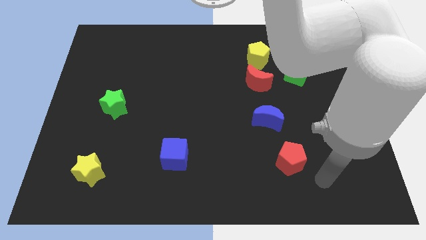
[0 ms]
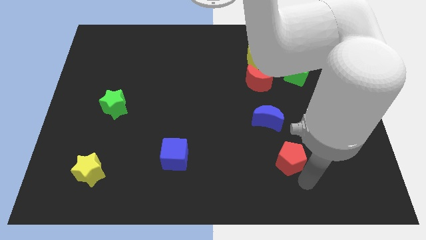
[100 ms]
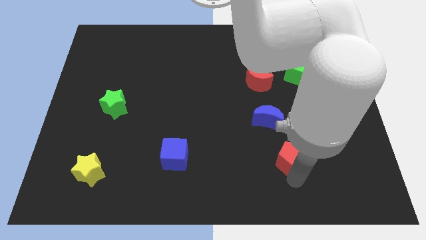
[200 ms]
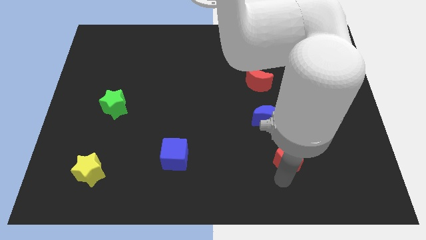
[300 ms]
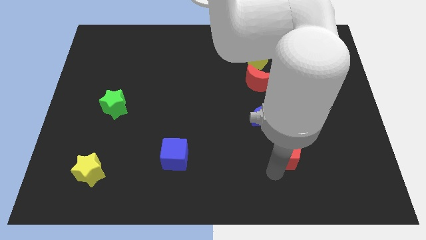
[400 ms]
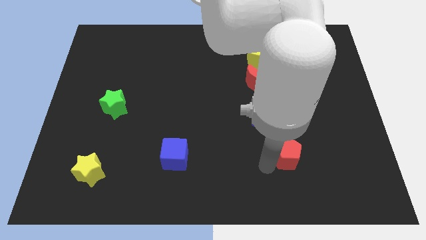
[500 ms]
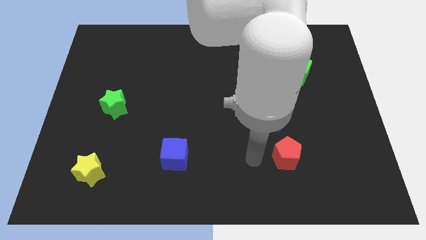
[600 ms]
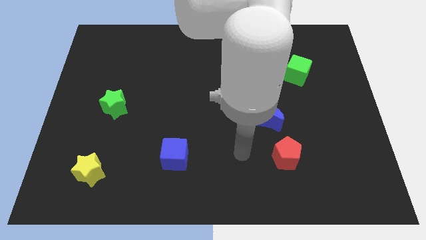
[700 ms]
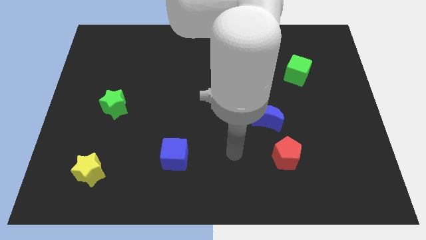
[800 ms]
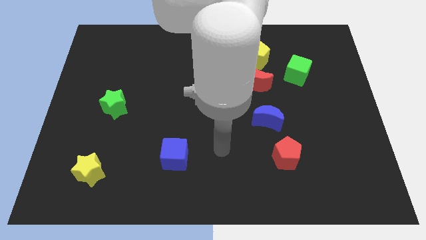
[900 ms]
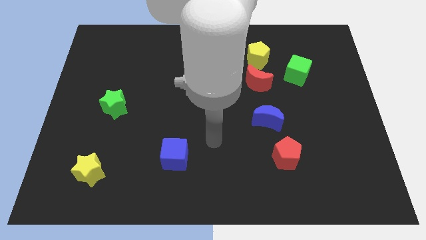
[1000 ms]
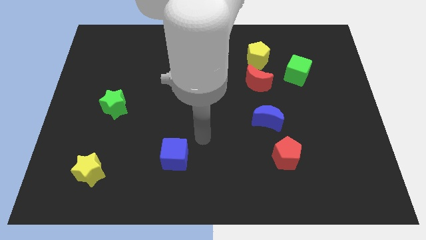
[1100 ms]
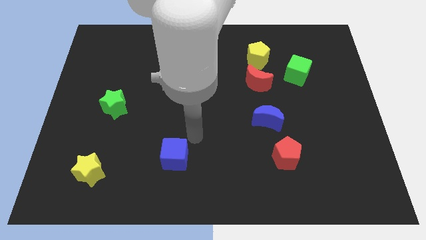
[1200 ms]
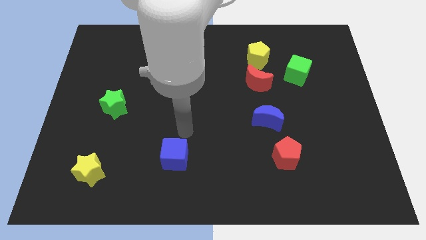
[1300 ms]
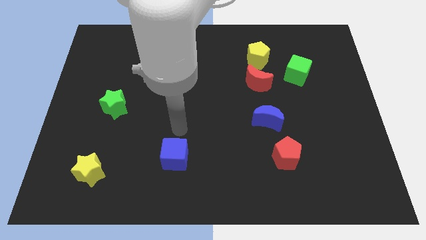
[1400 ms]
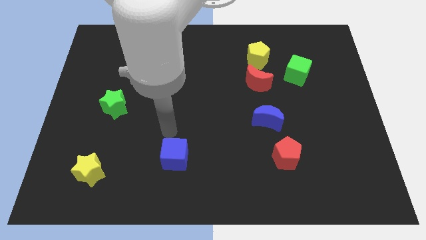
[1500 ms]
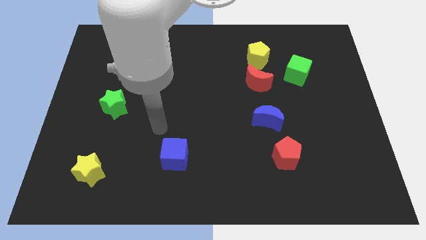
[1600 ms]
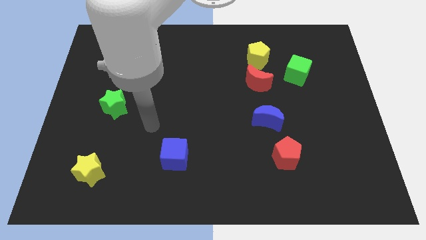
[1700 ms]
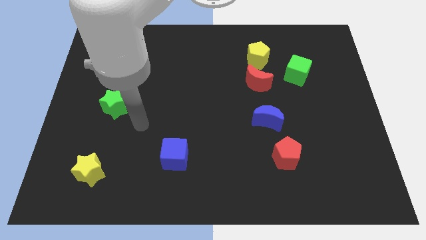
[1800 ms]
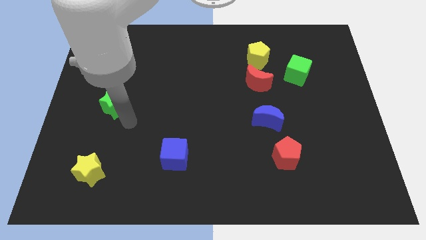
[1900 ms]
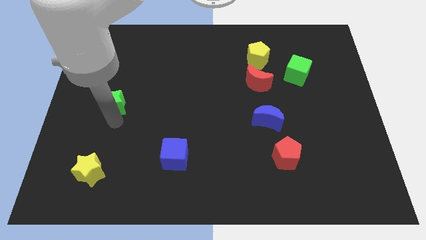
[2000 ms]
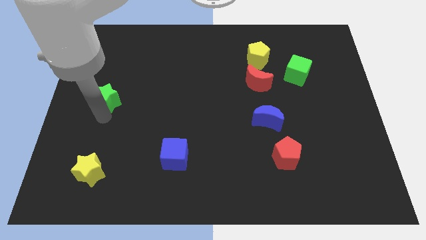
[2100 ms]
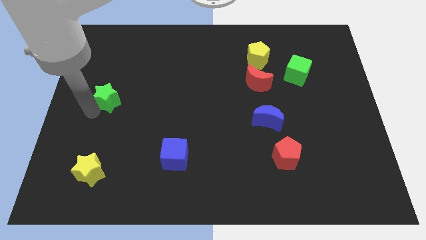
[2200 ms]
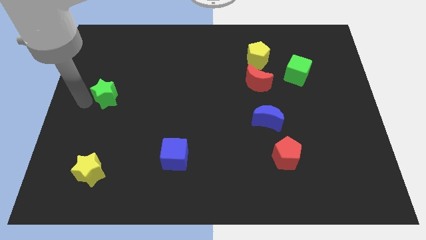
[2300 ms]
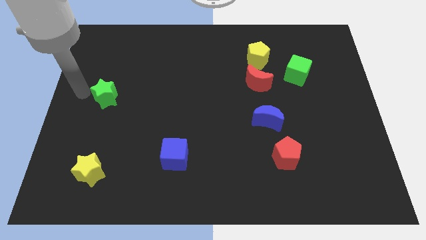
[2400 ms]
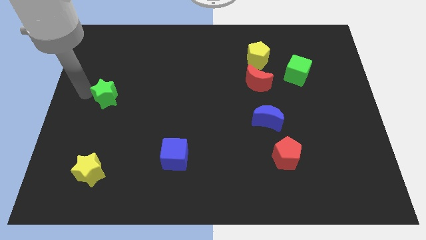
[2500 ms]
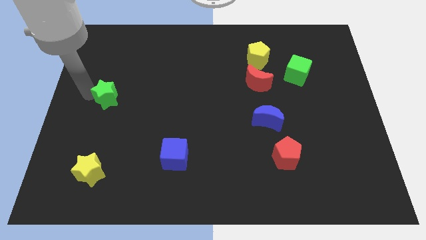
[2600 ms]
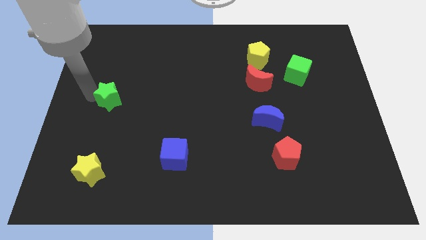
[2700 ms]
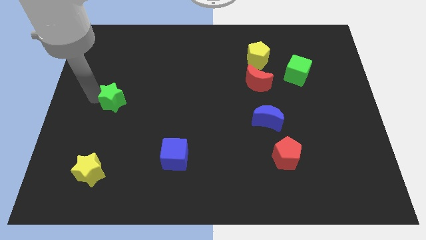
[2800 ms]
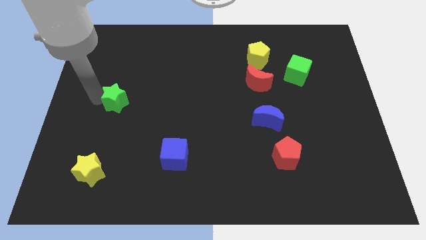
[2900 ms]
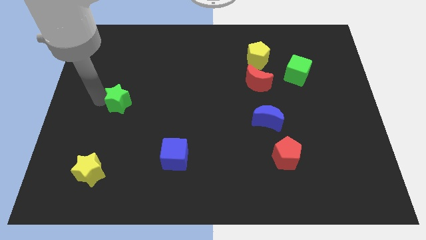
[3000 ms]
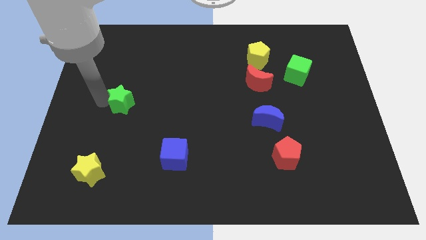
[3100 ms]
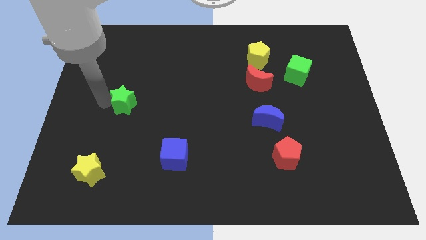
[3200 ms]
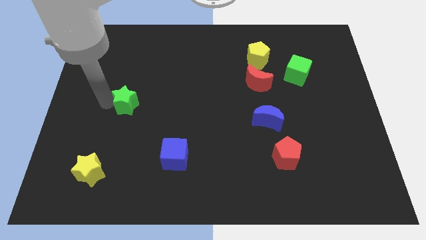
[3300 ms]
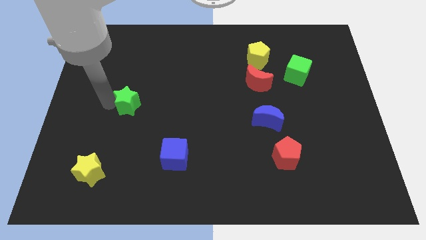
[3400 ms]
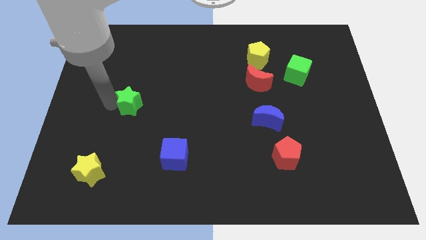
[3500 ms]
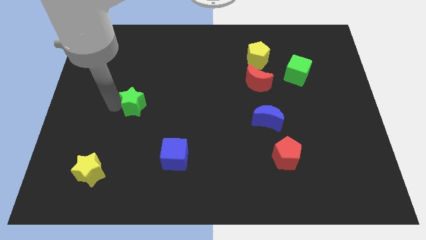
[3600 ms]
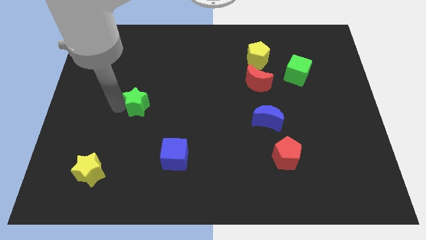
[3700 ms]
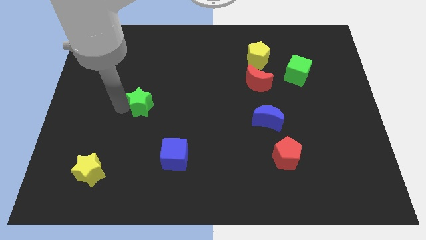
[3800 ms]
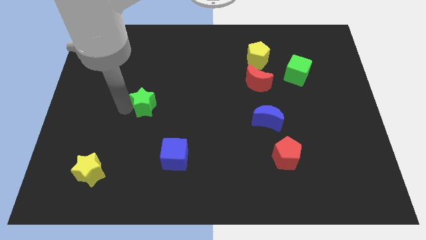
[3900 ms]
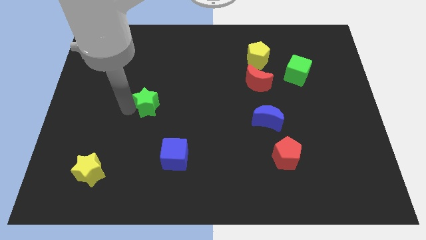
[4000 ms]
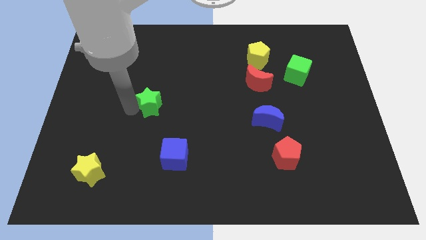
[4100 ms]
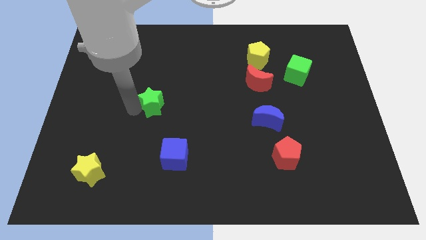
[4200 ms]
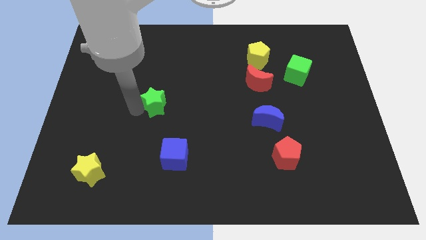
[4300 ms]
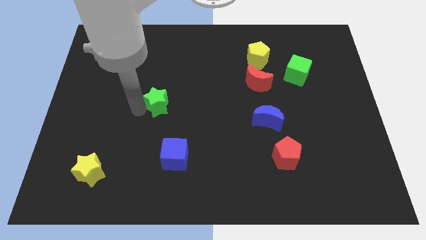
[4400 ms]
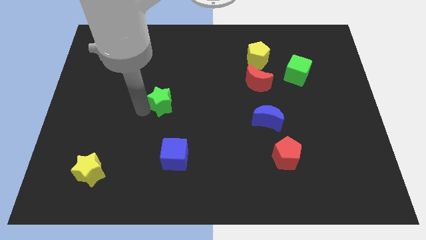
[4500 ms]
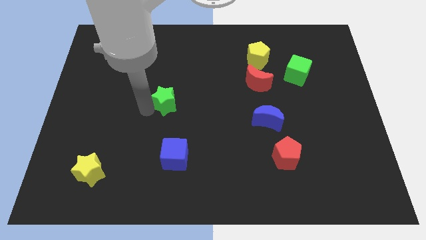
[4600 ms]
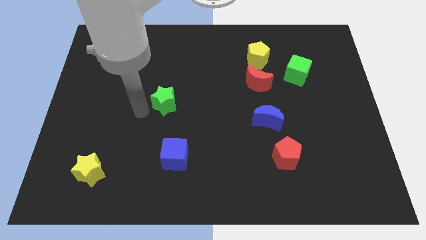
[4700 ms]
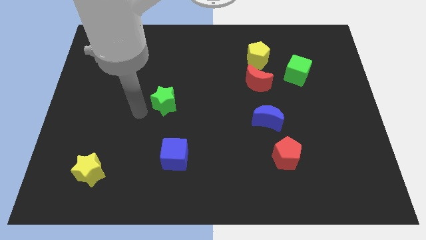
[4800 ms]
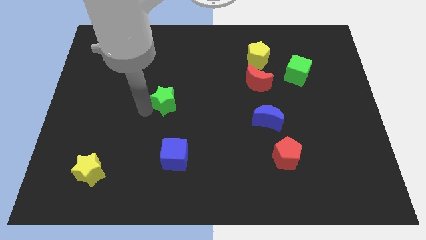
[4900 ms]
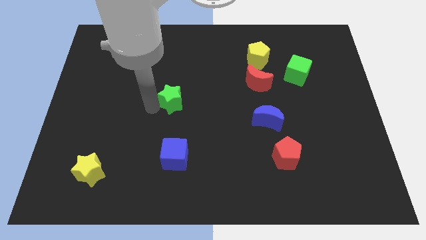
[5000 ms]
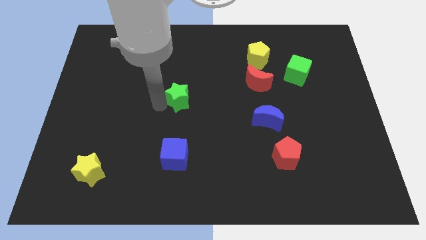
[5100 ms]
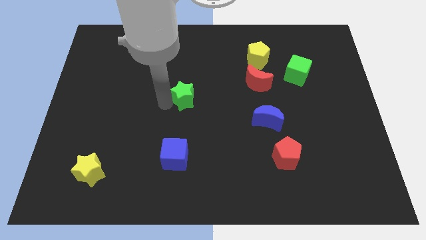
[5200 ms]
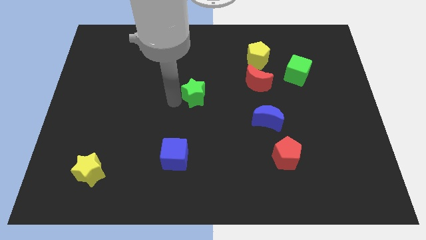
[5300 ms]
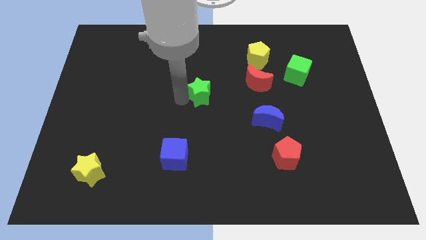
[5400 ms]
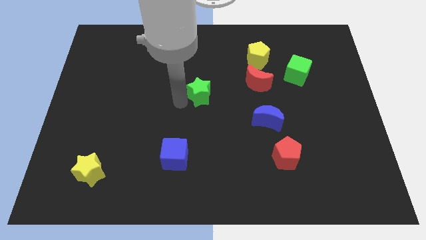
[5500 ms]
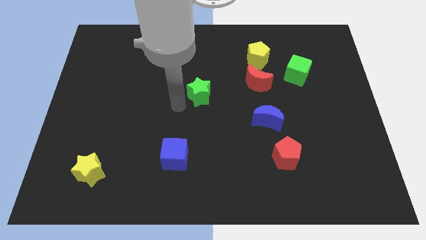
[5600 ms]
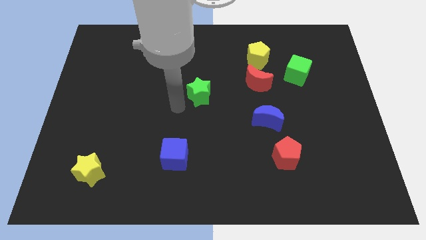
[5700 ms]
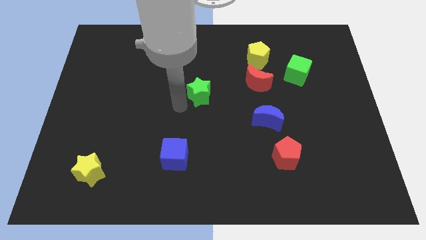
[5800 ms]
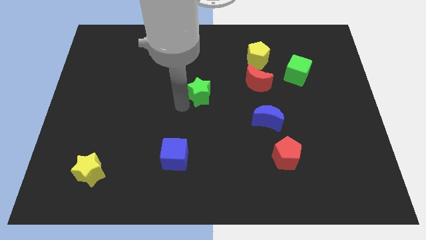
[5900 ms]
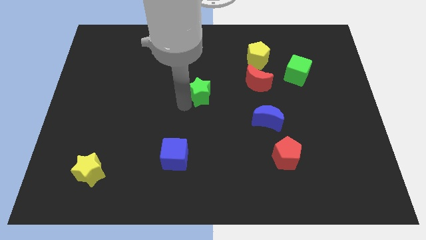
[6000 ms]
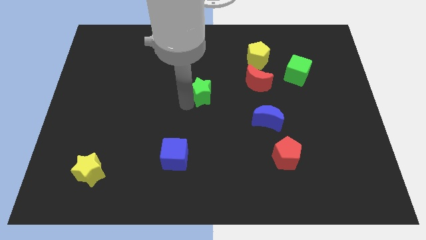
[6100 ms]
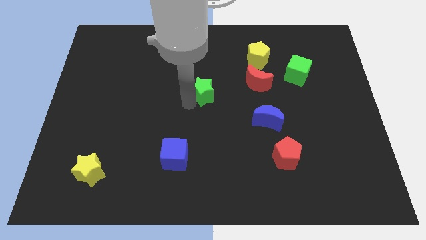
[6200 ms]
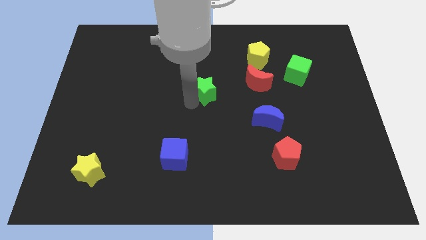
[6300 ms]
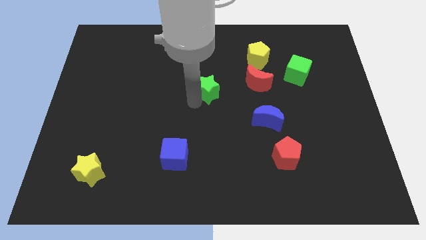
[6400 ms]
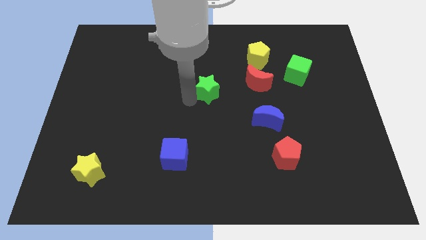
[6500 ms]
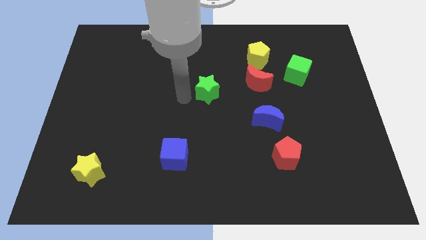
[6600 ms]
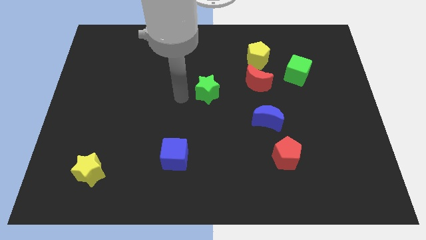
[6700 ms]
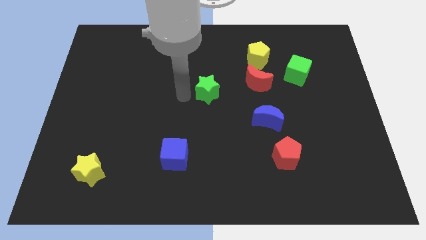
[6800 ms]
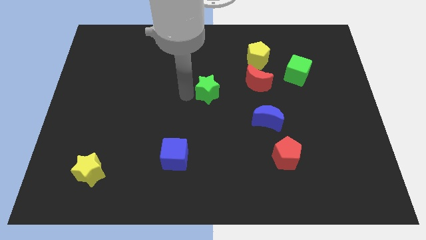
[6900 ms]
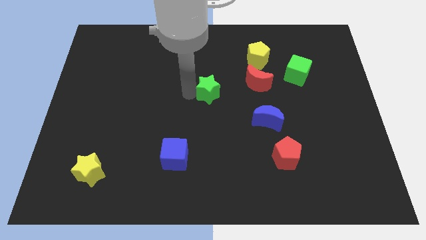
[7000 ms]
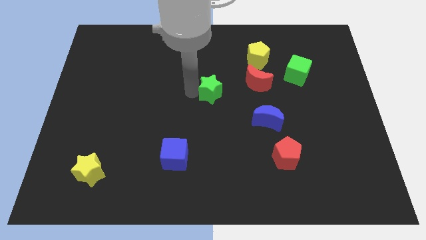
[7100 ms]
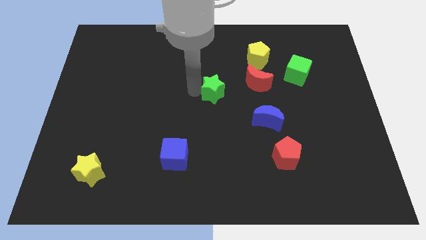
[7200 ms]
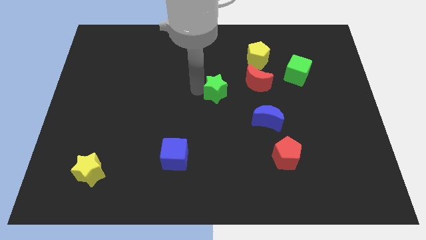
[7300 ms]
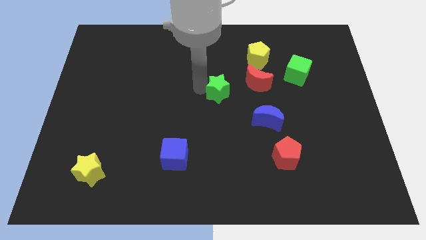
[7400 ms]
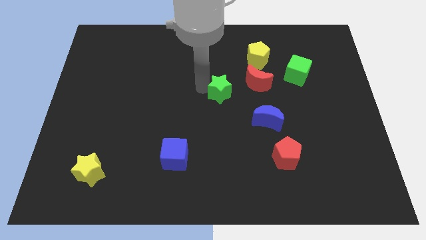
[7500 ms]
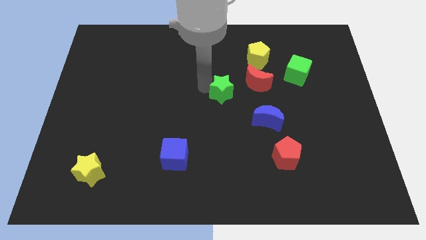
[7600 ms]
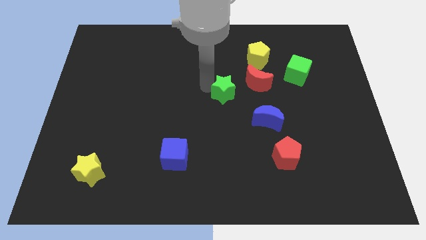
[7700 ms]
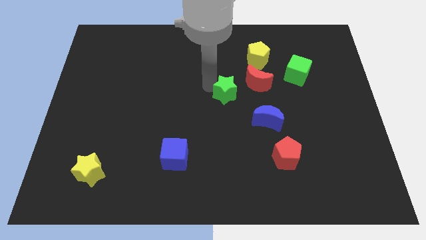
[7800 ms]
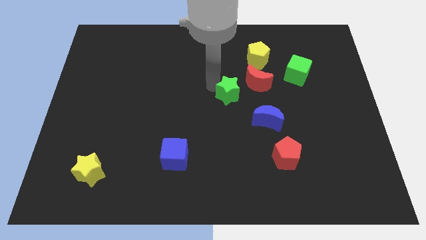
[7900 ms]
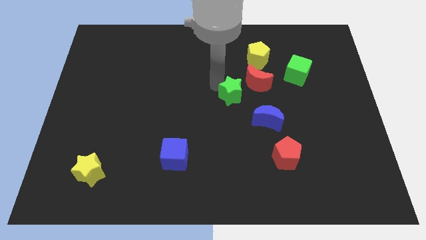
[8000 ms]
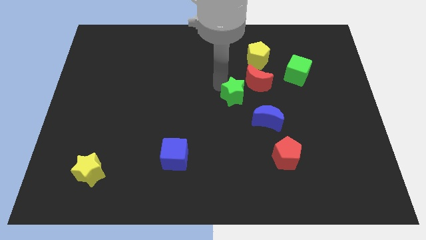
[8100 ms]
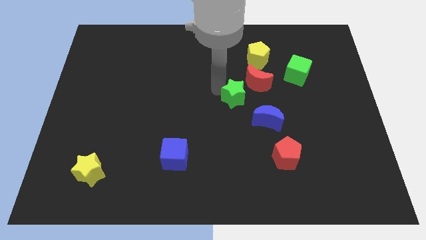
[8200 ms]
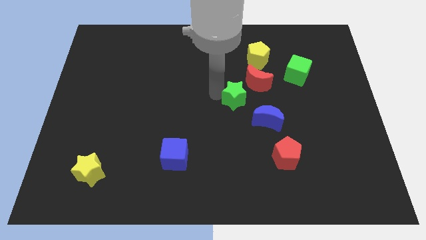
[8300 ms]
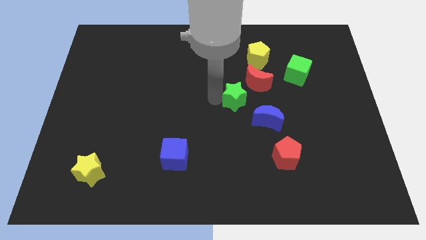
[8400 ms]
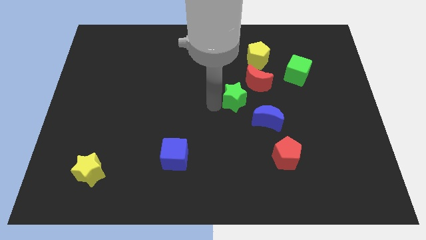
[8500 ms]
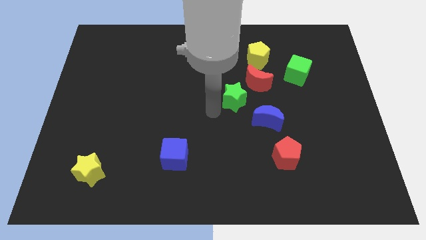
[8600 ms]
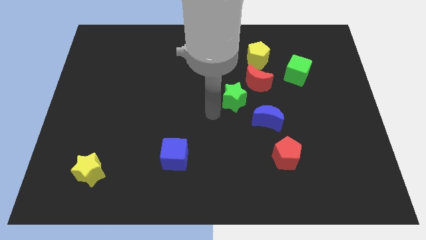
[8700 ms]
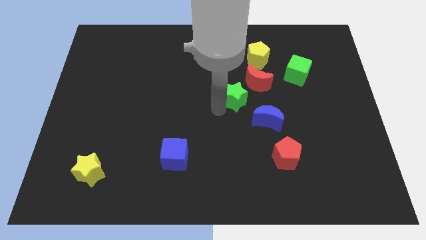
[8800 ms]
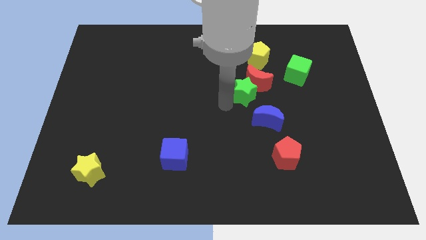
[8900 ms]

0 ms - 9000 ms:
move the green star to the red moon
